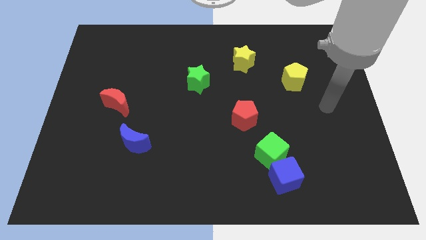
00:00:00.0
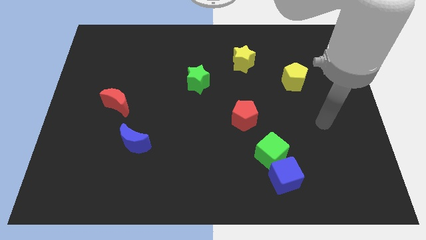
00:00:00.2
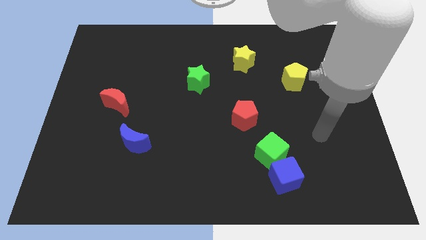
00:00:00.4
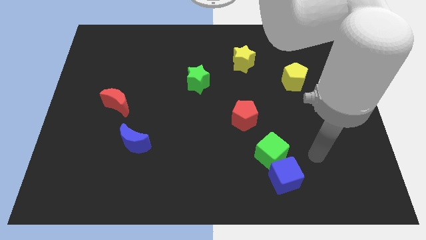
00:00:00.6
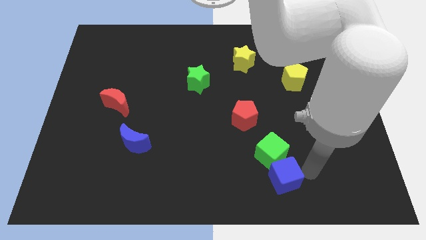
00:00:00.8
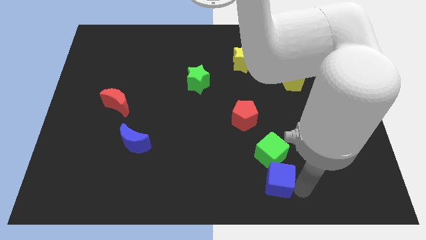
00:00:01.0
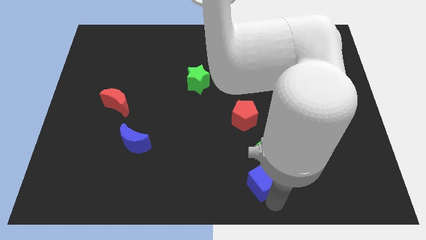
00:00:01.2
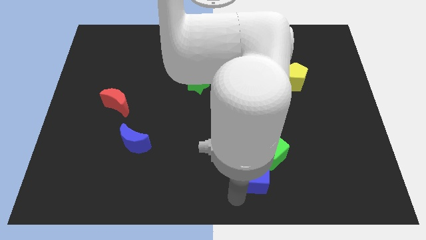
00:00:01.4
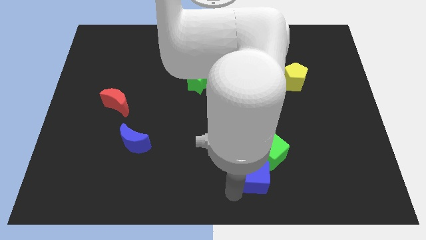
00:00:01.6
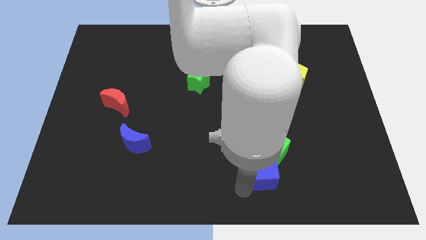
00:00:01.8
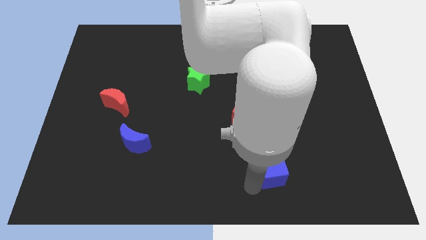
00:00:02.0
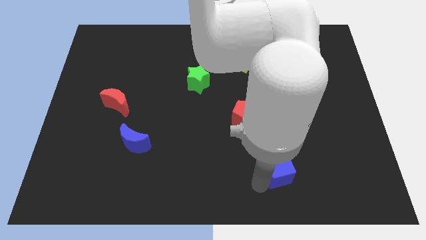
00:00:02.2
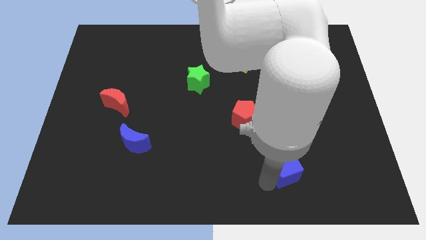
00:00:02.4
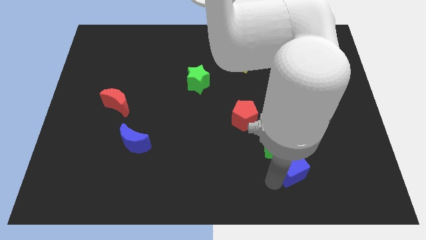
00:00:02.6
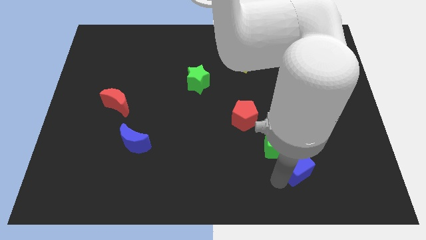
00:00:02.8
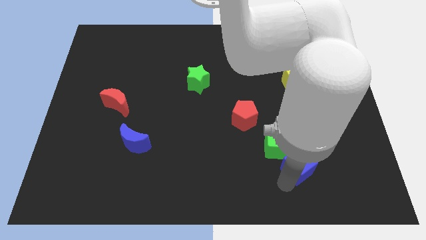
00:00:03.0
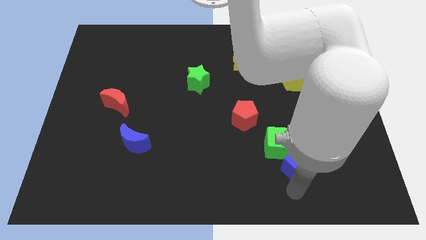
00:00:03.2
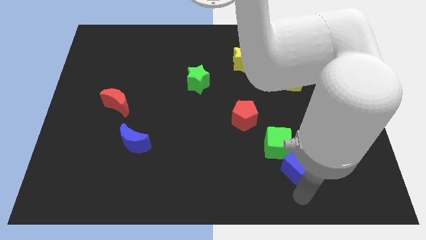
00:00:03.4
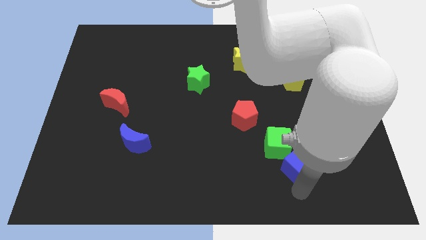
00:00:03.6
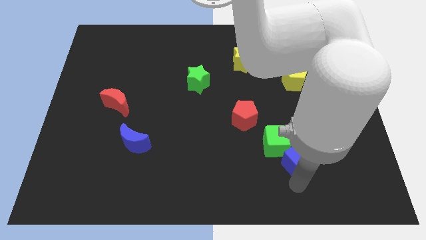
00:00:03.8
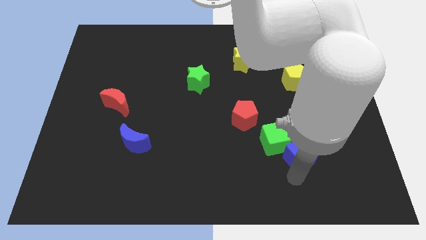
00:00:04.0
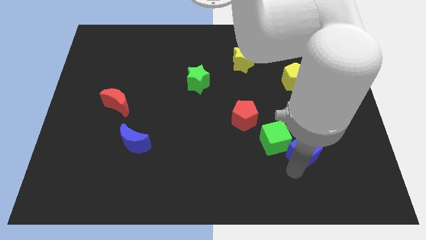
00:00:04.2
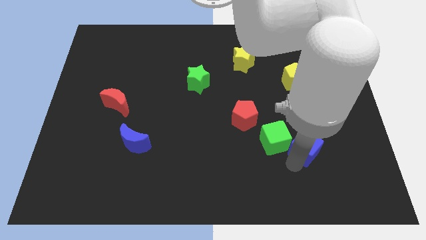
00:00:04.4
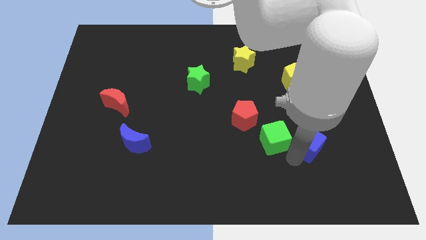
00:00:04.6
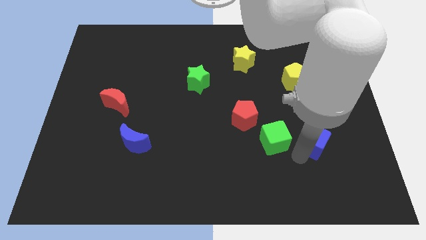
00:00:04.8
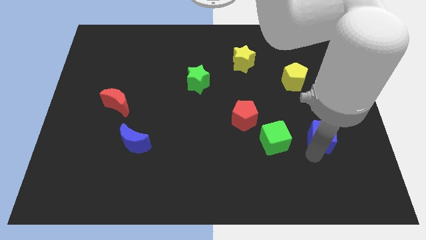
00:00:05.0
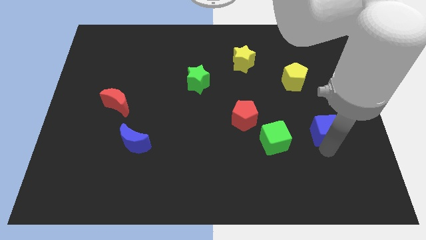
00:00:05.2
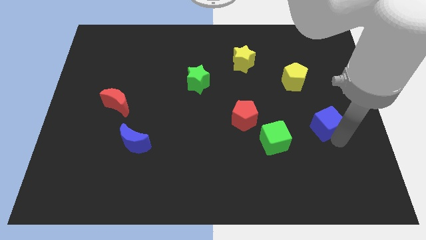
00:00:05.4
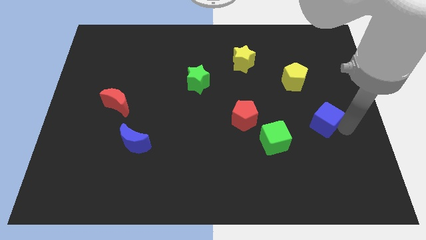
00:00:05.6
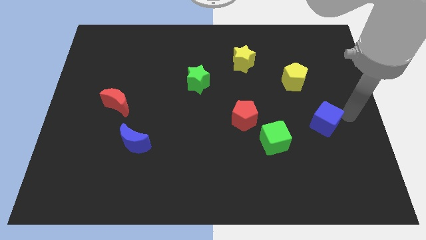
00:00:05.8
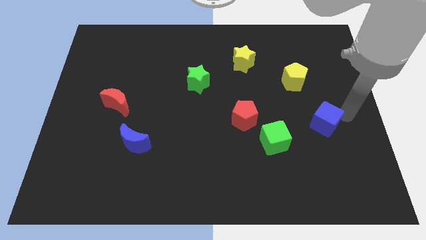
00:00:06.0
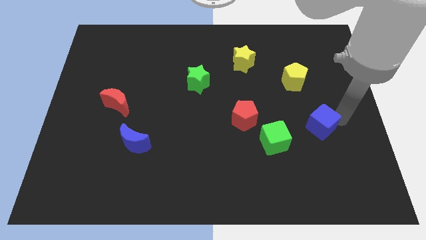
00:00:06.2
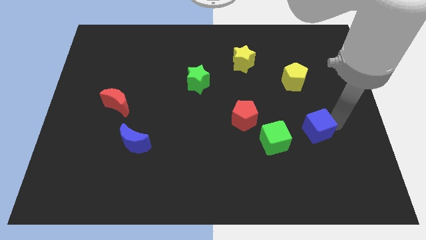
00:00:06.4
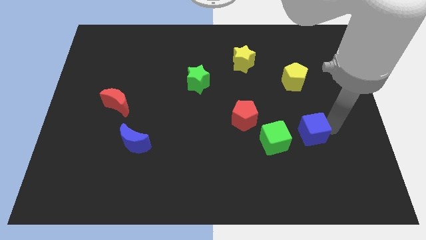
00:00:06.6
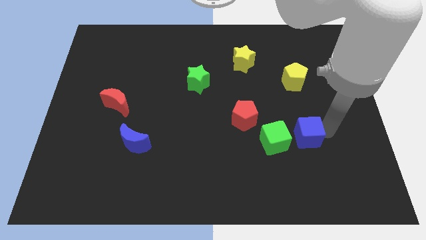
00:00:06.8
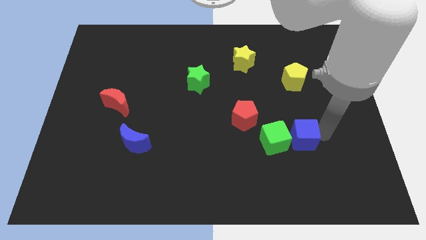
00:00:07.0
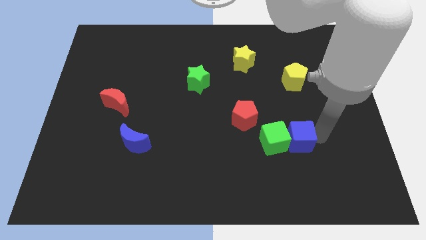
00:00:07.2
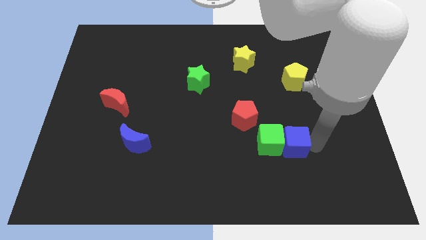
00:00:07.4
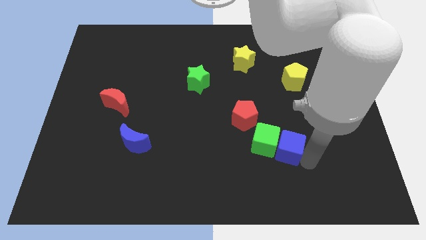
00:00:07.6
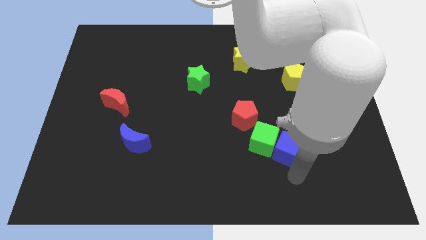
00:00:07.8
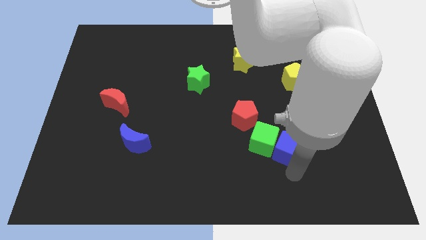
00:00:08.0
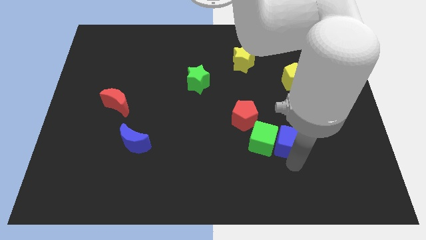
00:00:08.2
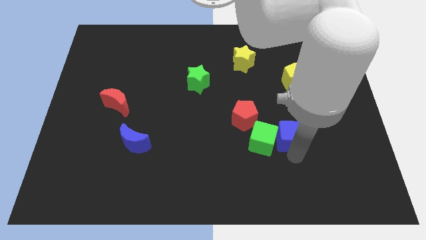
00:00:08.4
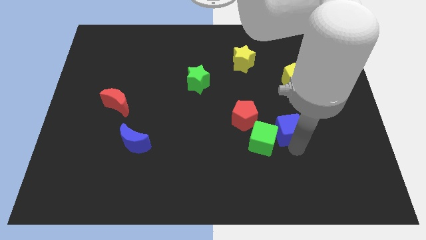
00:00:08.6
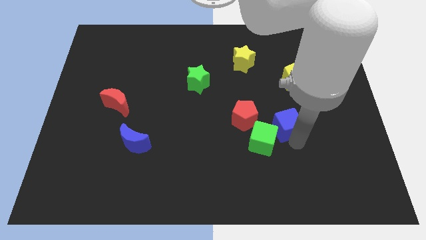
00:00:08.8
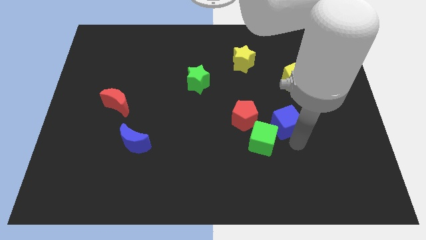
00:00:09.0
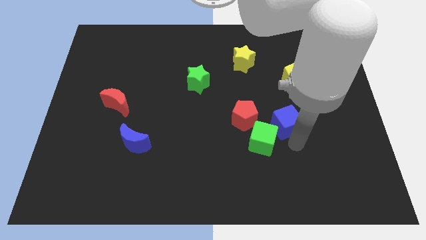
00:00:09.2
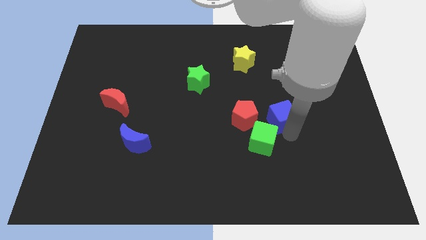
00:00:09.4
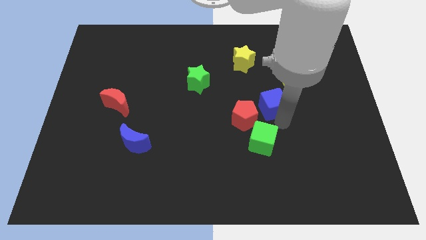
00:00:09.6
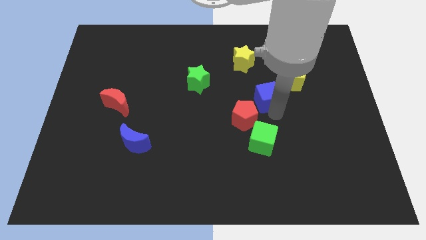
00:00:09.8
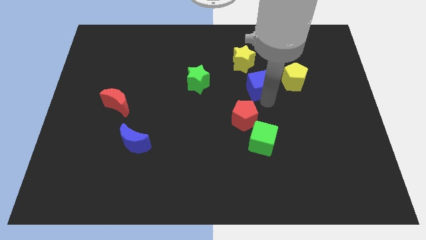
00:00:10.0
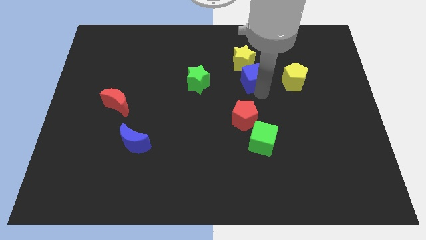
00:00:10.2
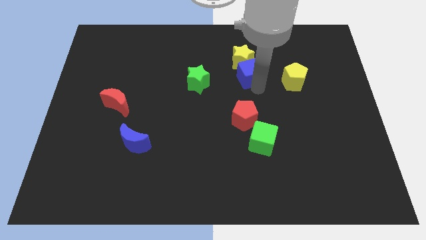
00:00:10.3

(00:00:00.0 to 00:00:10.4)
slide the blue cube to the yellow star

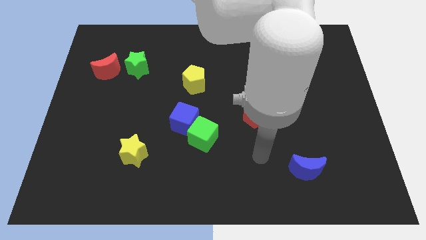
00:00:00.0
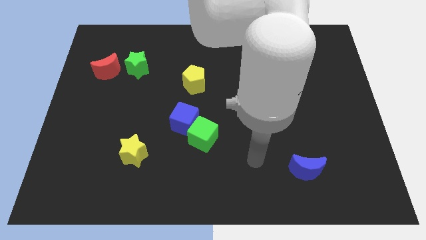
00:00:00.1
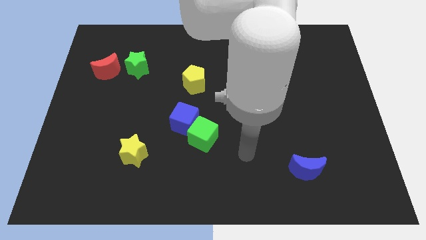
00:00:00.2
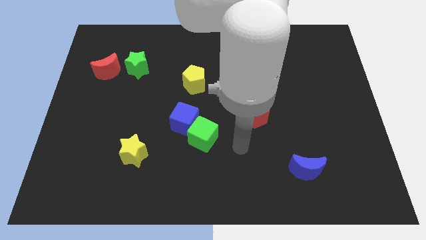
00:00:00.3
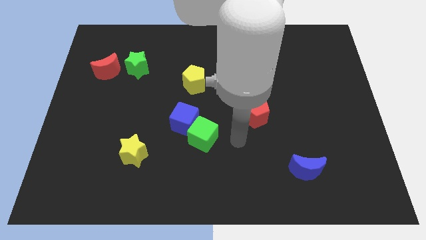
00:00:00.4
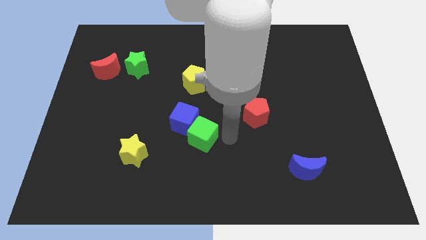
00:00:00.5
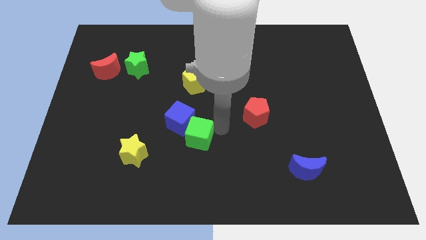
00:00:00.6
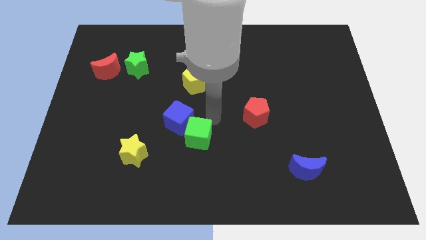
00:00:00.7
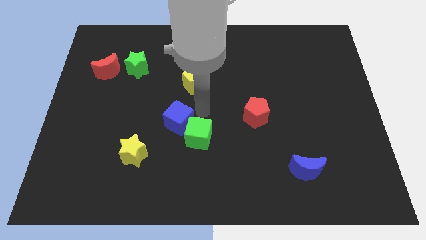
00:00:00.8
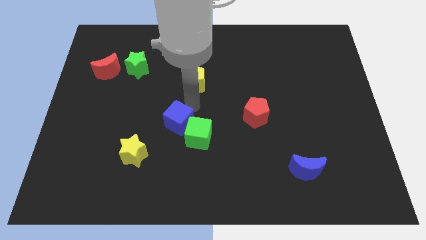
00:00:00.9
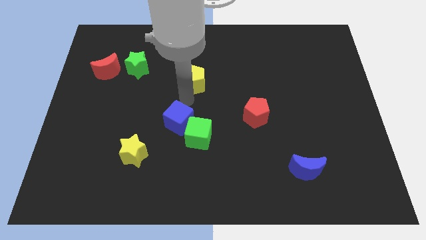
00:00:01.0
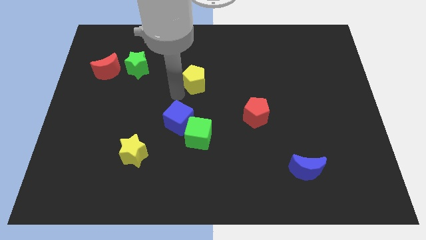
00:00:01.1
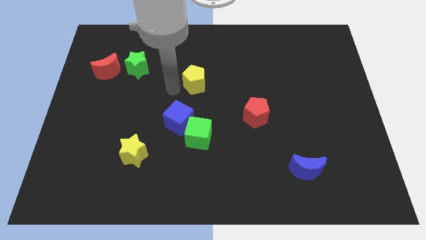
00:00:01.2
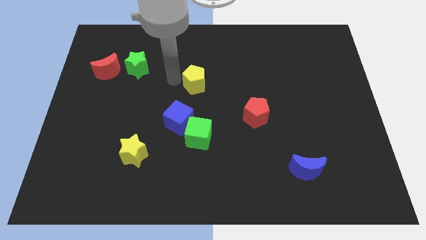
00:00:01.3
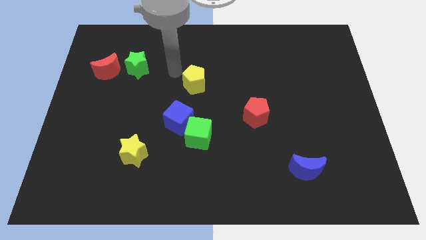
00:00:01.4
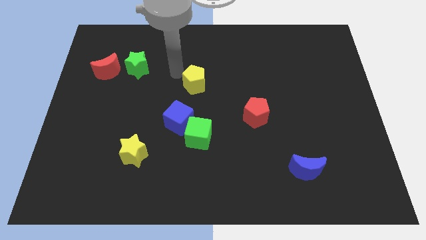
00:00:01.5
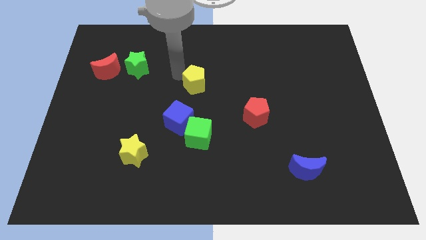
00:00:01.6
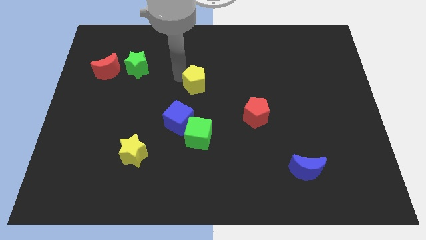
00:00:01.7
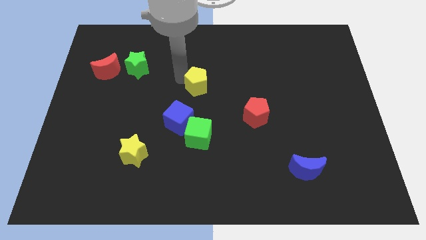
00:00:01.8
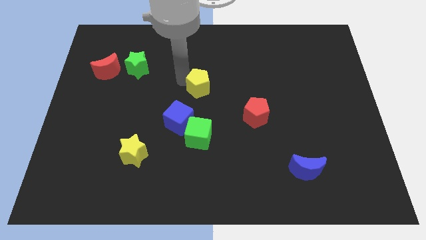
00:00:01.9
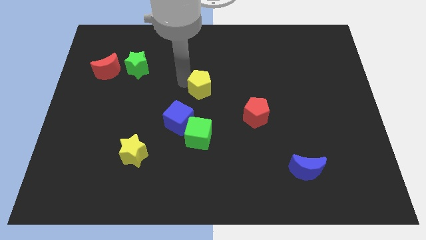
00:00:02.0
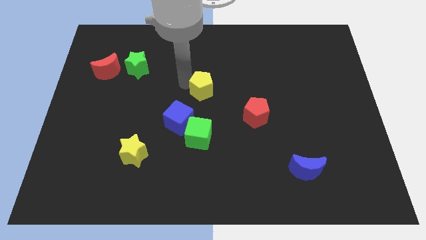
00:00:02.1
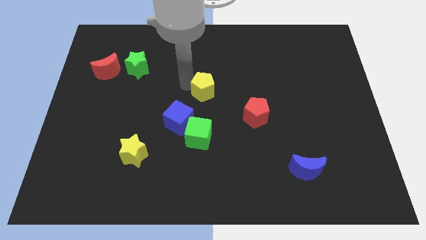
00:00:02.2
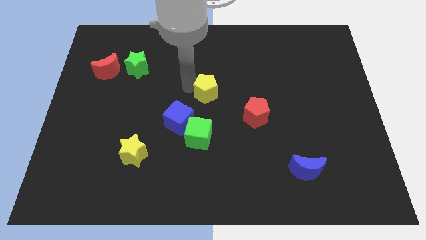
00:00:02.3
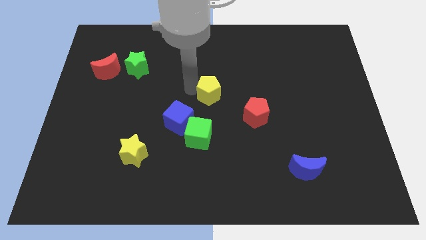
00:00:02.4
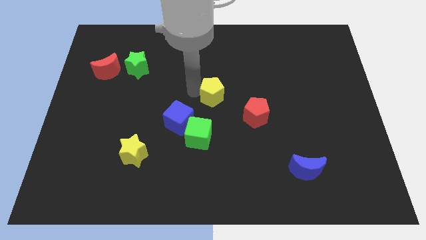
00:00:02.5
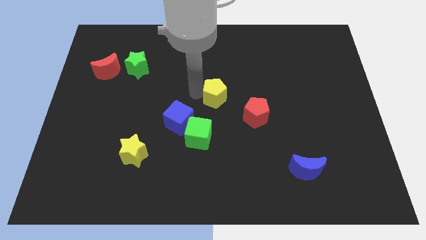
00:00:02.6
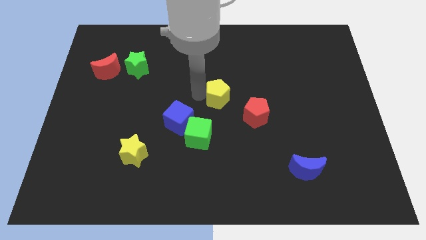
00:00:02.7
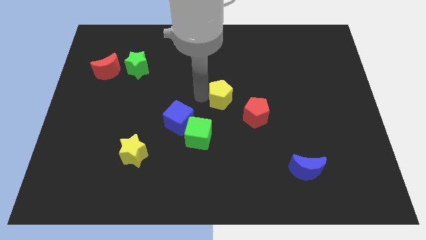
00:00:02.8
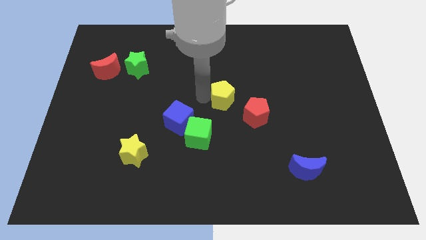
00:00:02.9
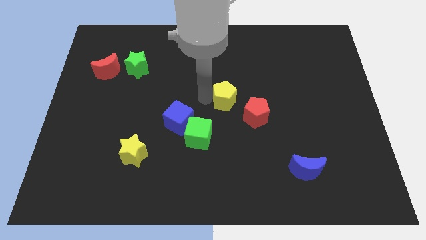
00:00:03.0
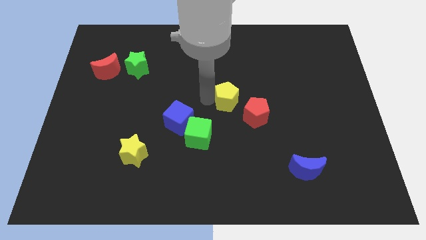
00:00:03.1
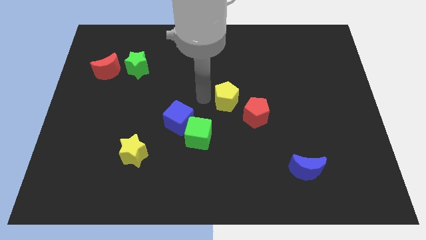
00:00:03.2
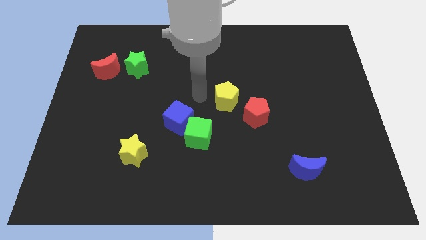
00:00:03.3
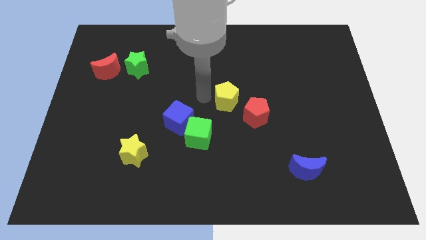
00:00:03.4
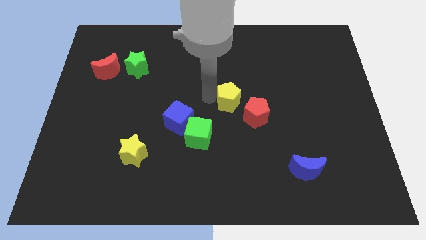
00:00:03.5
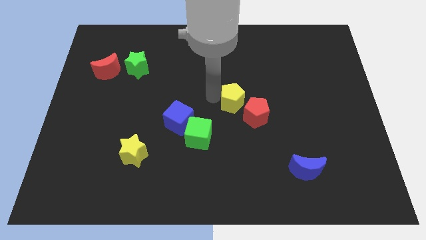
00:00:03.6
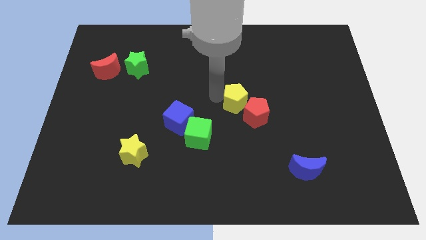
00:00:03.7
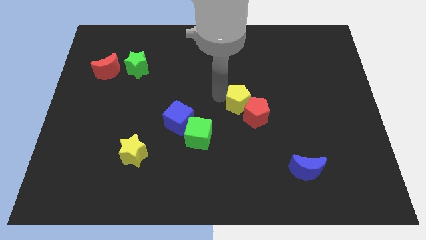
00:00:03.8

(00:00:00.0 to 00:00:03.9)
put the yellow pentagon to the red pentagon
